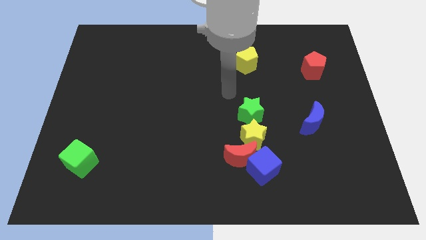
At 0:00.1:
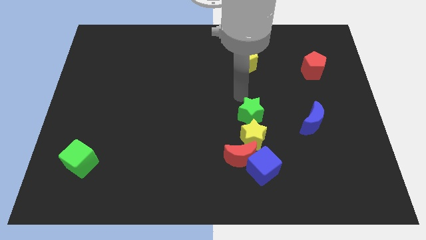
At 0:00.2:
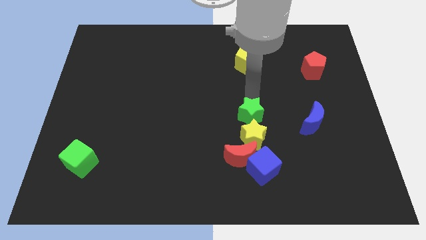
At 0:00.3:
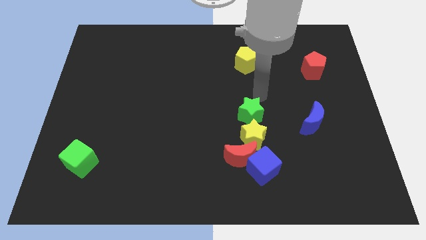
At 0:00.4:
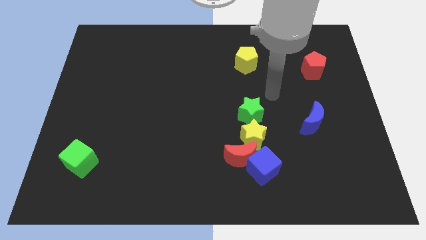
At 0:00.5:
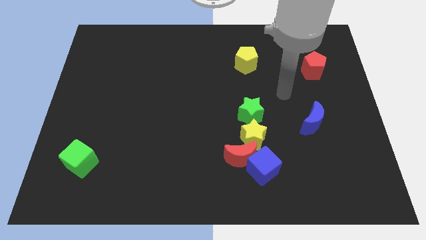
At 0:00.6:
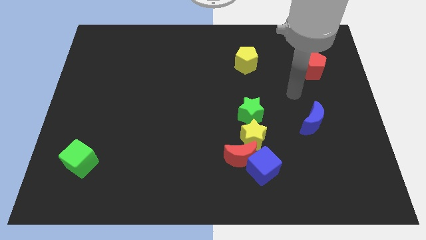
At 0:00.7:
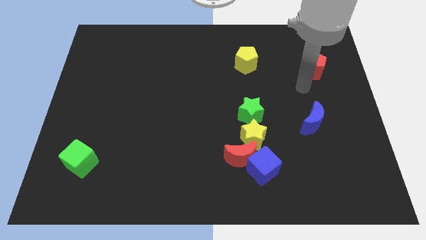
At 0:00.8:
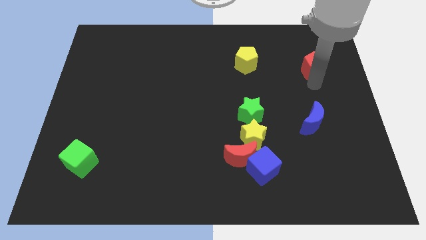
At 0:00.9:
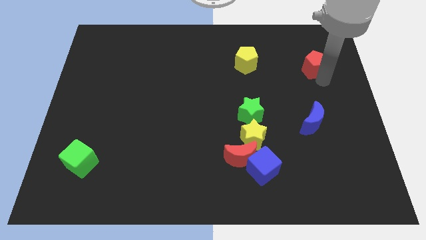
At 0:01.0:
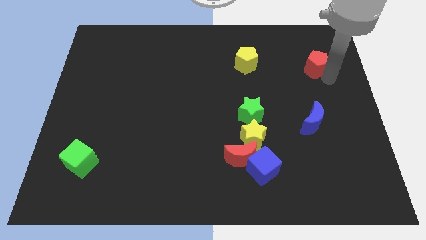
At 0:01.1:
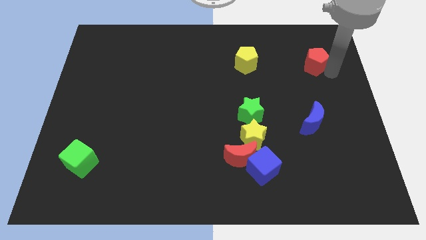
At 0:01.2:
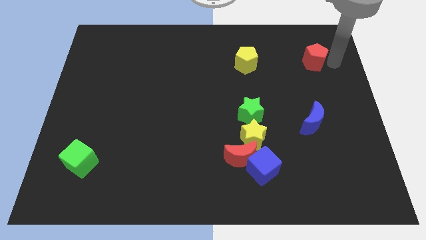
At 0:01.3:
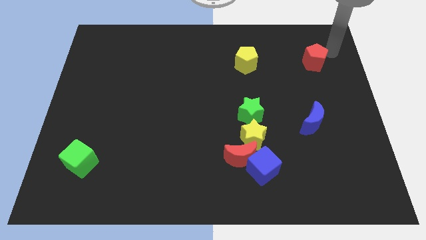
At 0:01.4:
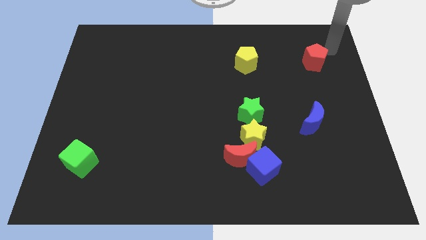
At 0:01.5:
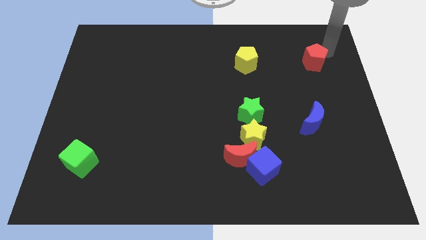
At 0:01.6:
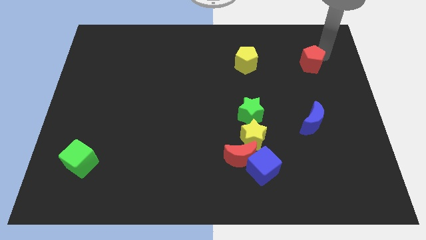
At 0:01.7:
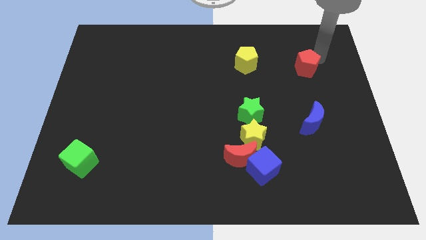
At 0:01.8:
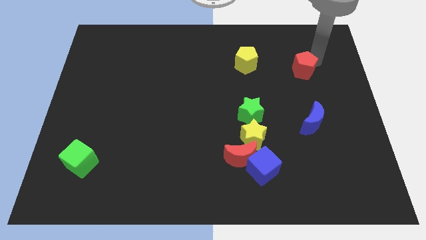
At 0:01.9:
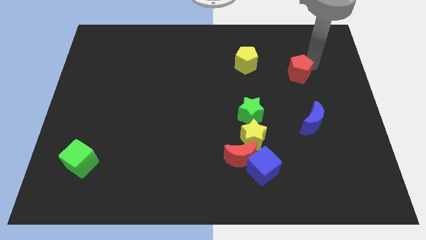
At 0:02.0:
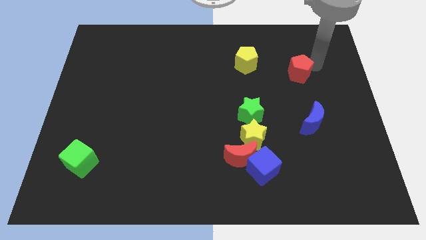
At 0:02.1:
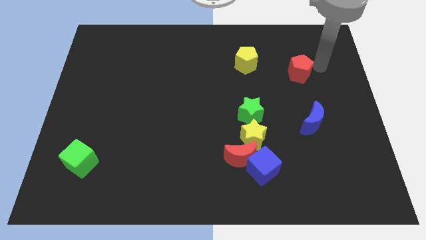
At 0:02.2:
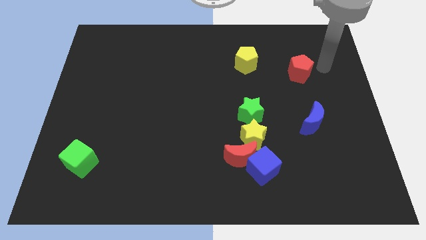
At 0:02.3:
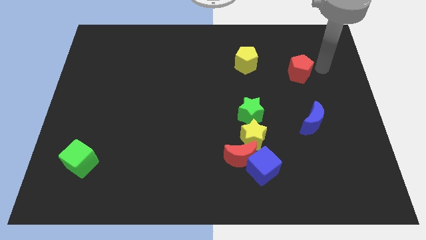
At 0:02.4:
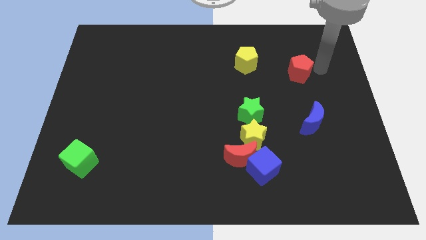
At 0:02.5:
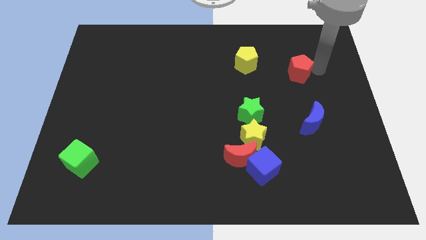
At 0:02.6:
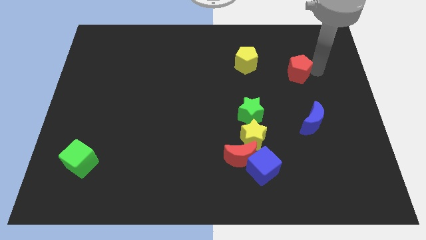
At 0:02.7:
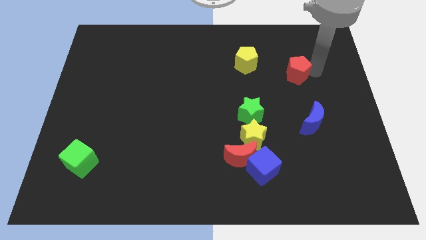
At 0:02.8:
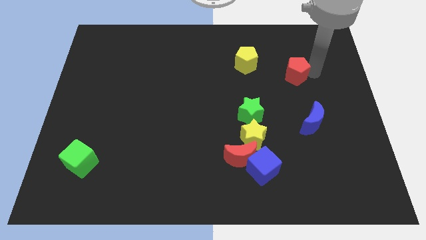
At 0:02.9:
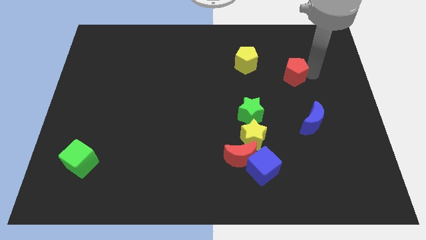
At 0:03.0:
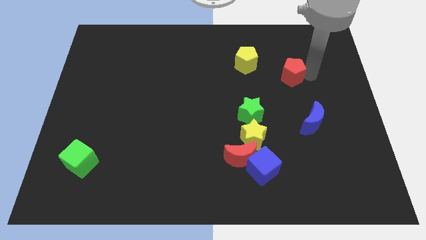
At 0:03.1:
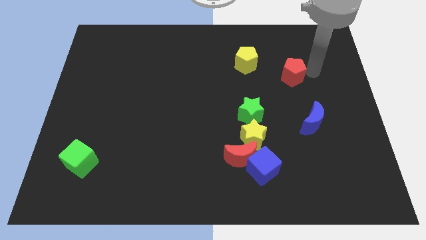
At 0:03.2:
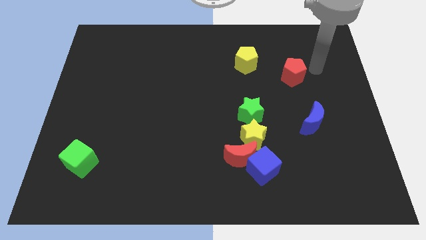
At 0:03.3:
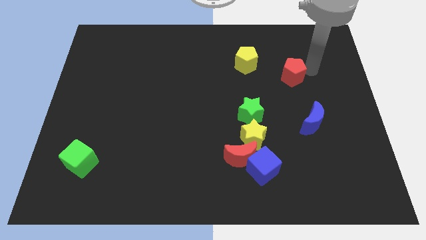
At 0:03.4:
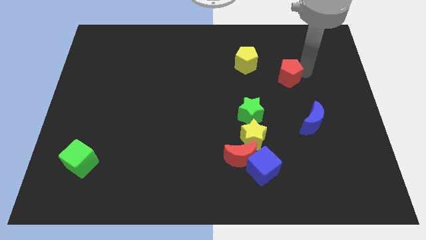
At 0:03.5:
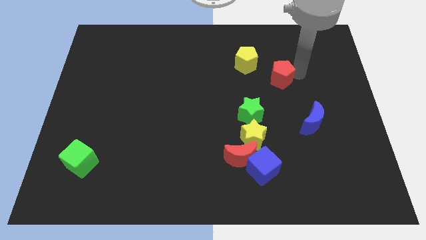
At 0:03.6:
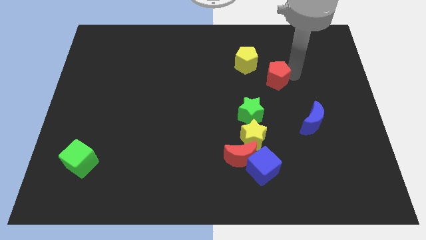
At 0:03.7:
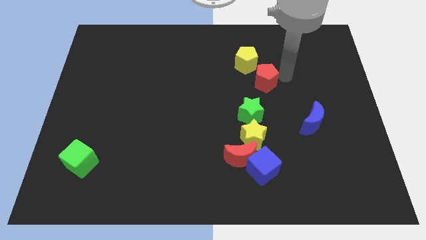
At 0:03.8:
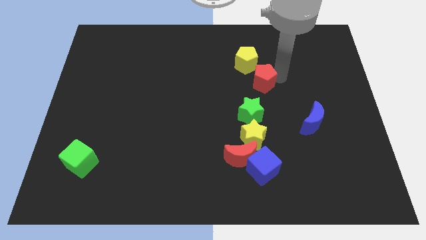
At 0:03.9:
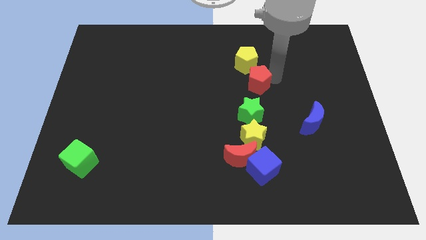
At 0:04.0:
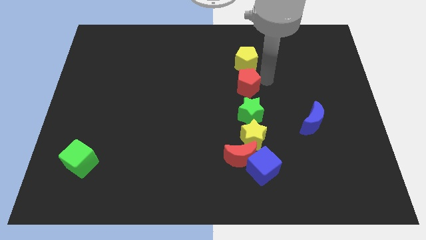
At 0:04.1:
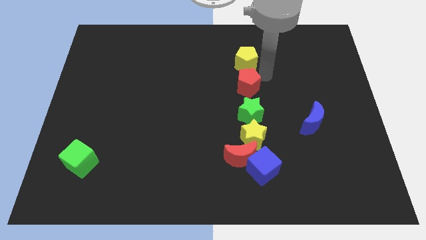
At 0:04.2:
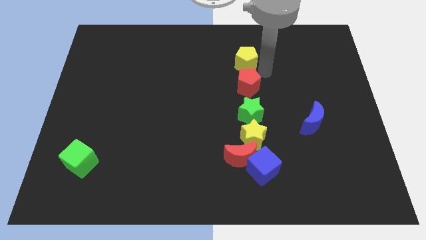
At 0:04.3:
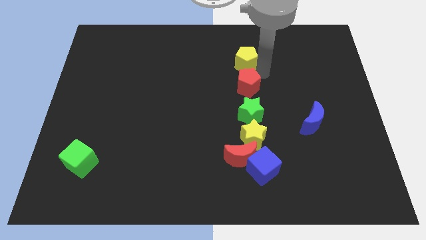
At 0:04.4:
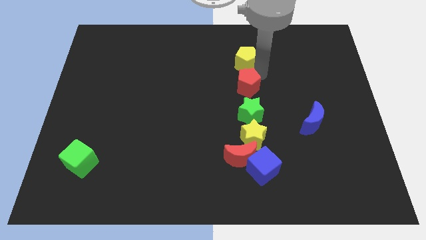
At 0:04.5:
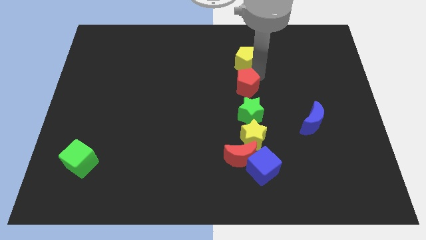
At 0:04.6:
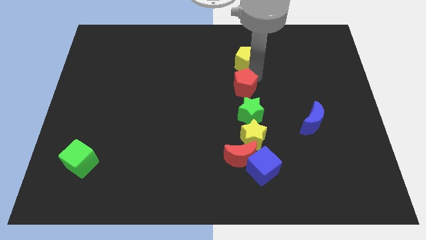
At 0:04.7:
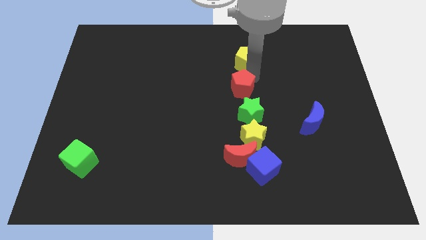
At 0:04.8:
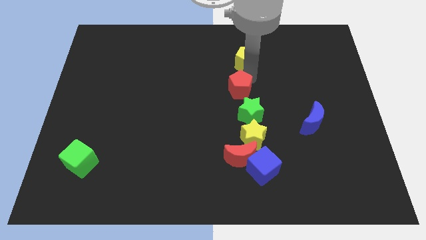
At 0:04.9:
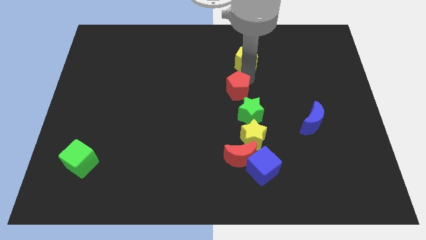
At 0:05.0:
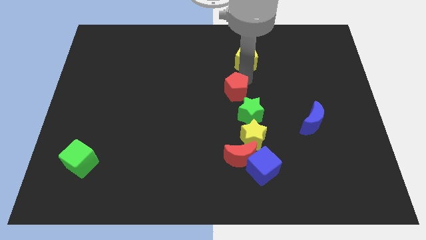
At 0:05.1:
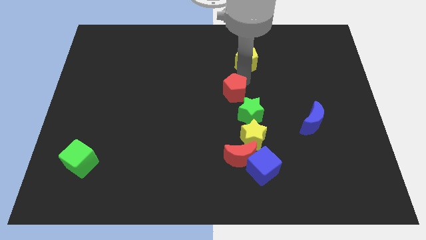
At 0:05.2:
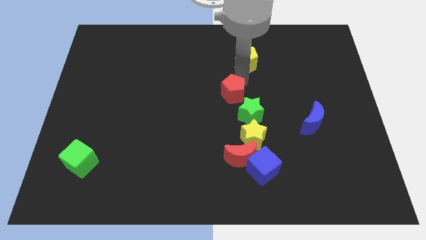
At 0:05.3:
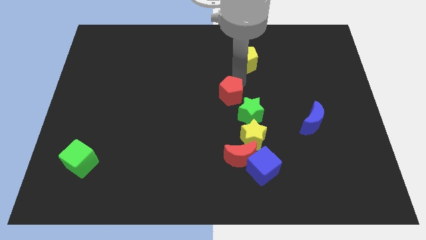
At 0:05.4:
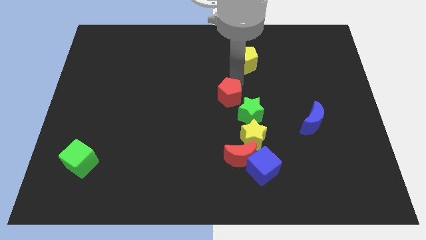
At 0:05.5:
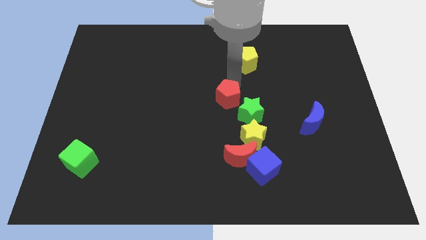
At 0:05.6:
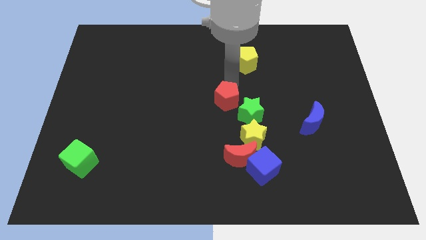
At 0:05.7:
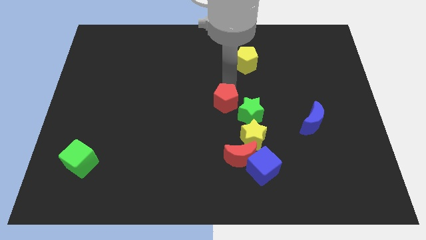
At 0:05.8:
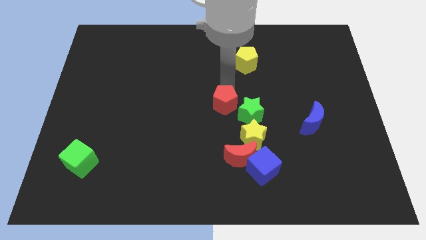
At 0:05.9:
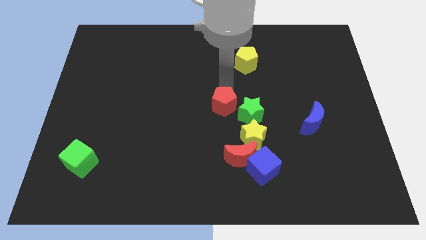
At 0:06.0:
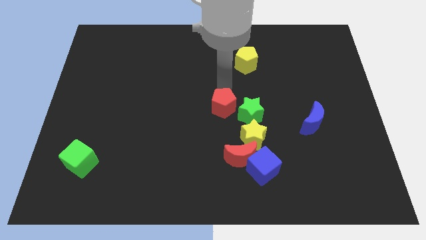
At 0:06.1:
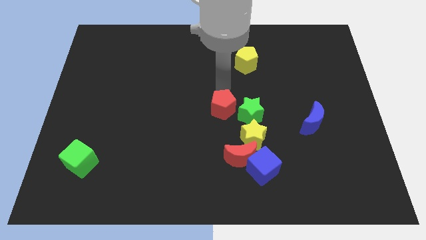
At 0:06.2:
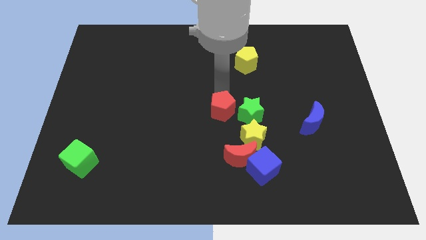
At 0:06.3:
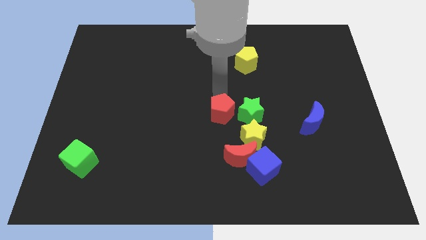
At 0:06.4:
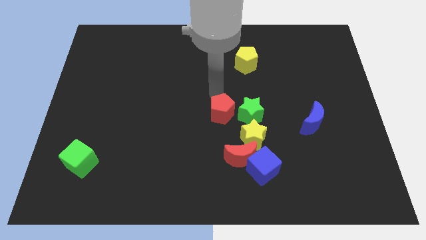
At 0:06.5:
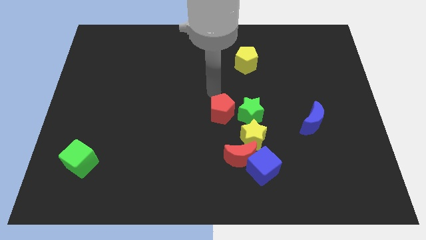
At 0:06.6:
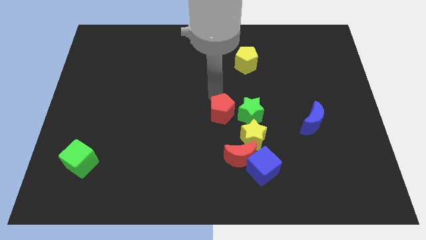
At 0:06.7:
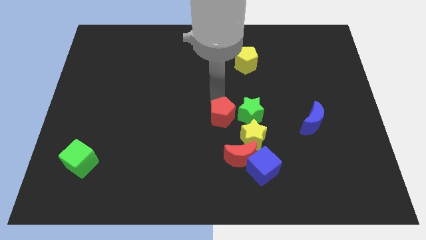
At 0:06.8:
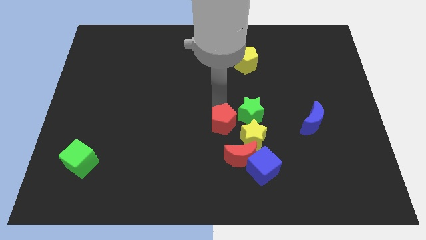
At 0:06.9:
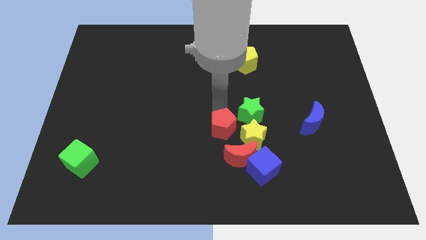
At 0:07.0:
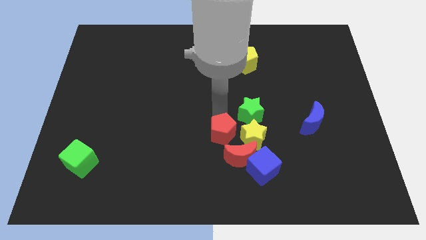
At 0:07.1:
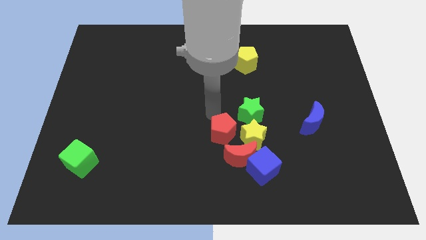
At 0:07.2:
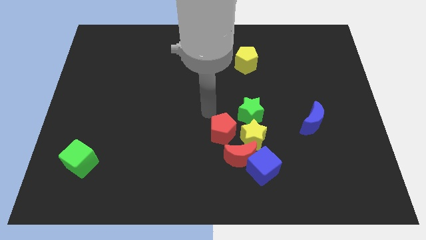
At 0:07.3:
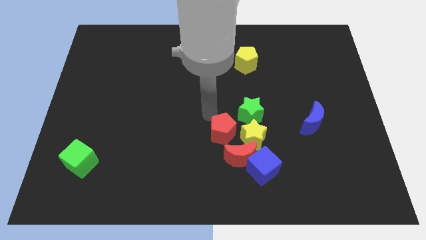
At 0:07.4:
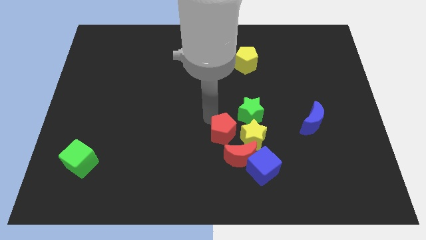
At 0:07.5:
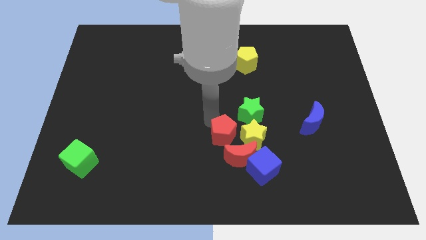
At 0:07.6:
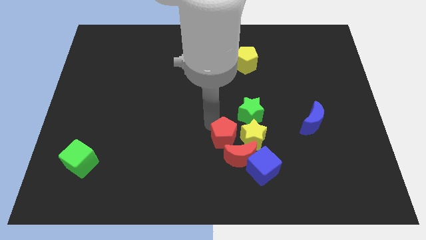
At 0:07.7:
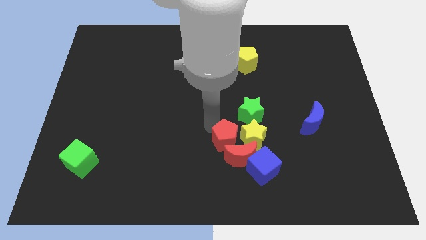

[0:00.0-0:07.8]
push the red pentagon next to the red moon
